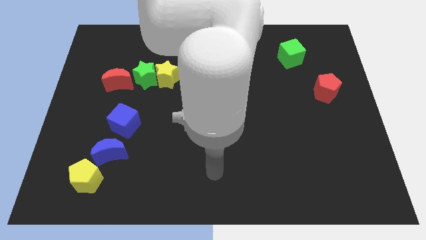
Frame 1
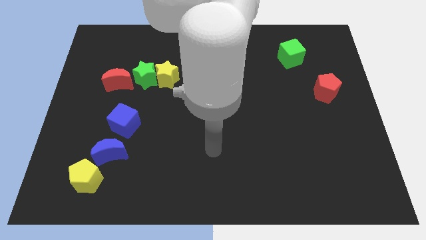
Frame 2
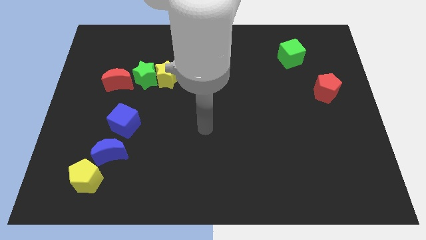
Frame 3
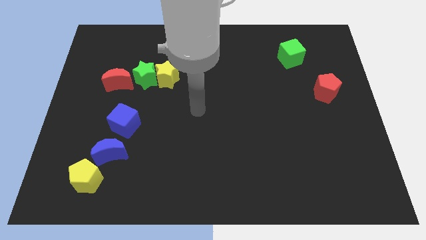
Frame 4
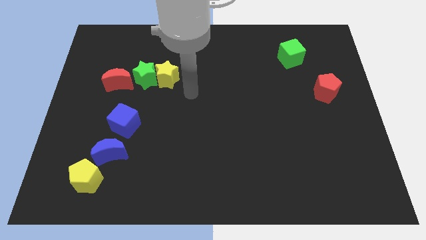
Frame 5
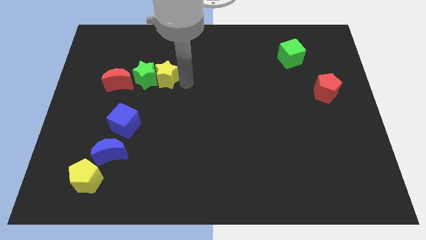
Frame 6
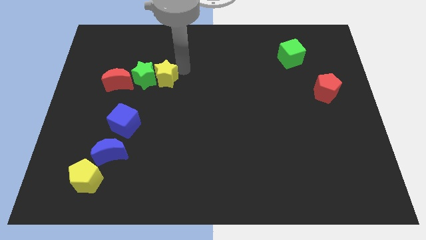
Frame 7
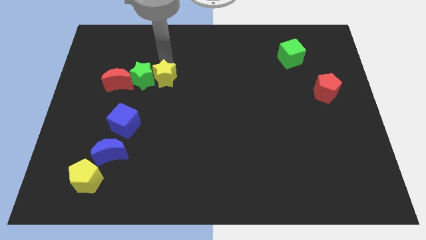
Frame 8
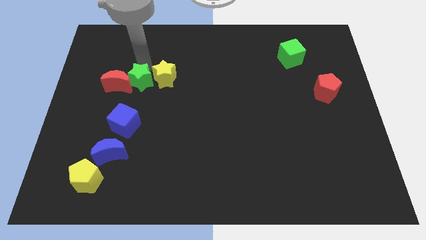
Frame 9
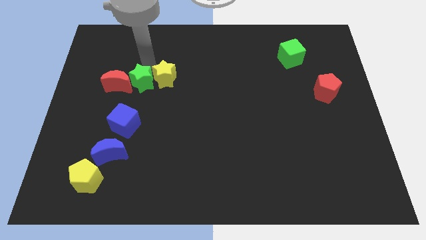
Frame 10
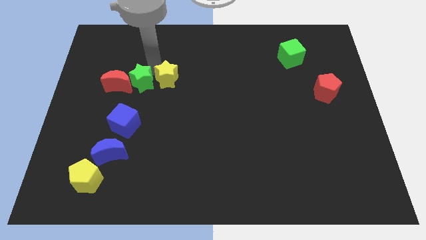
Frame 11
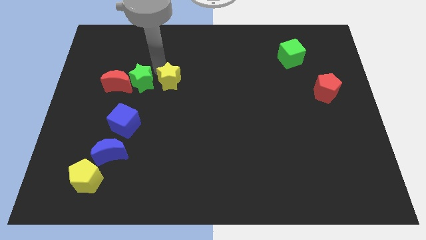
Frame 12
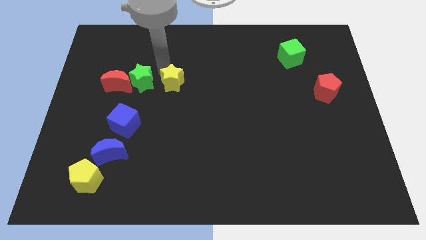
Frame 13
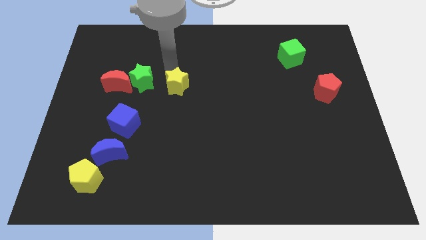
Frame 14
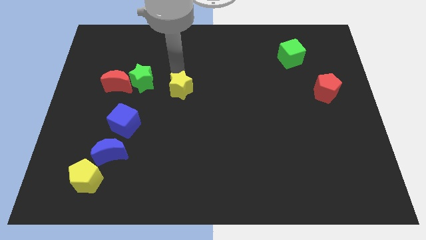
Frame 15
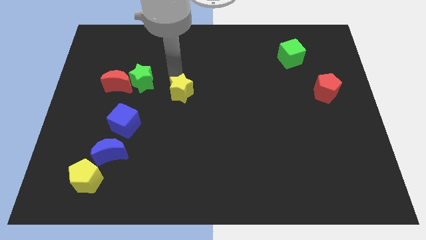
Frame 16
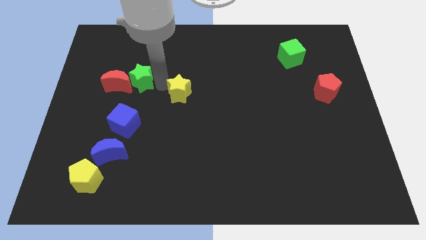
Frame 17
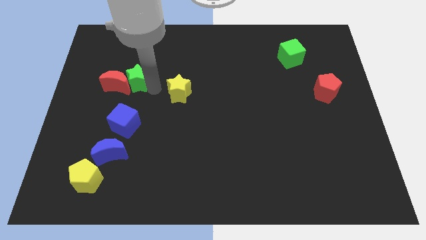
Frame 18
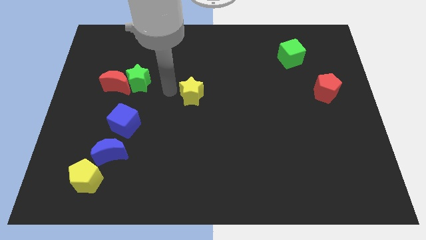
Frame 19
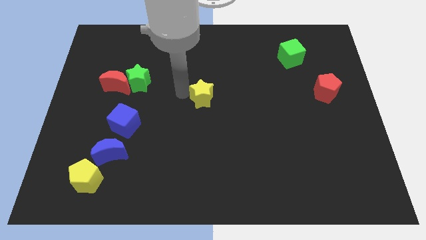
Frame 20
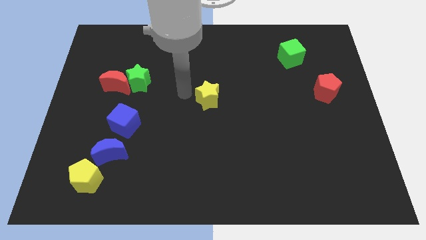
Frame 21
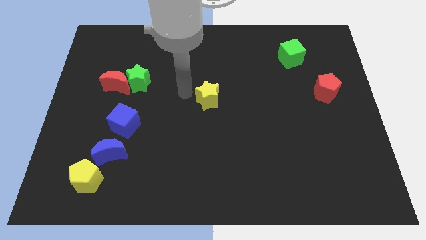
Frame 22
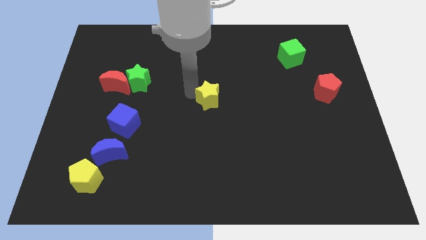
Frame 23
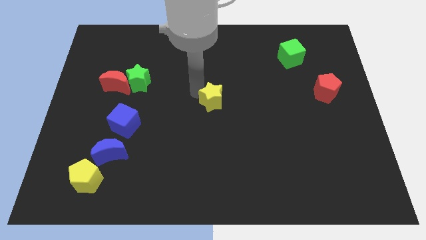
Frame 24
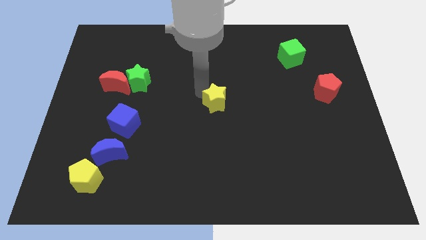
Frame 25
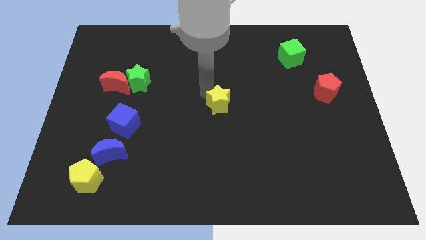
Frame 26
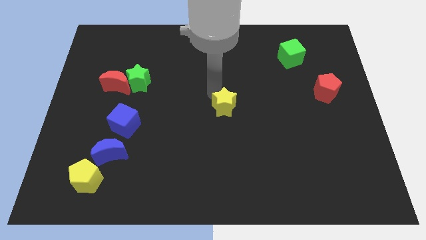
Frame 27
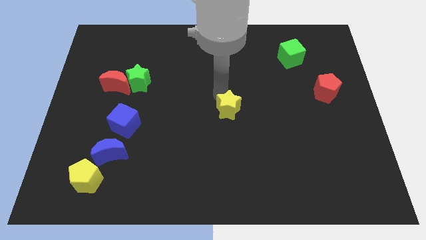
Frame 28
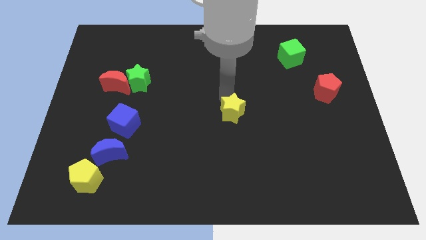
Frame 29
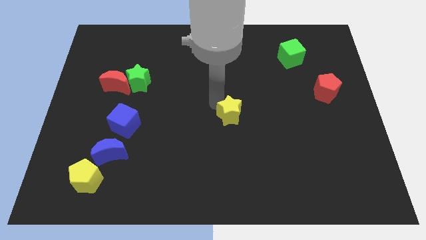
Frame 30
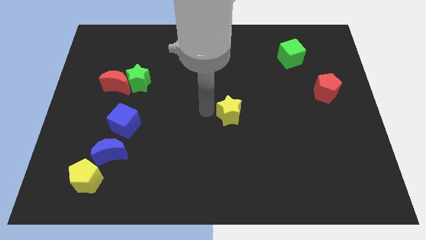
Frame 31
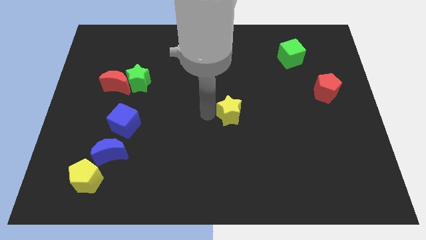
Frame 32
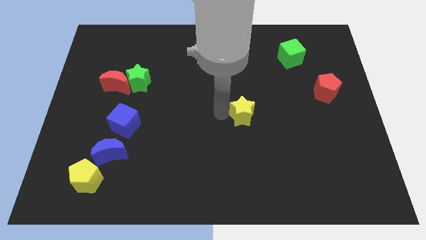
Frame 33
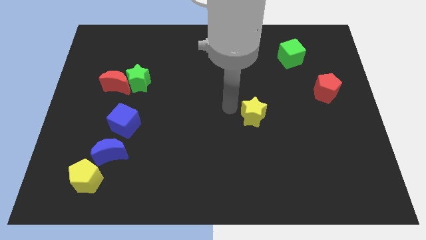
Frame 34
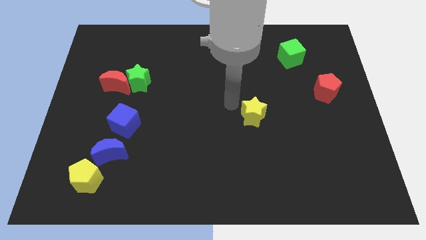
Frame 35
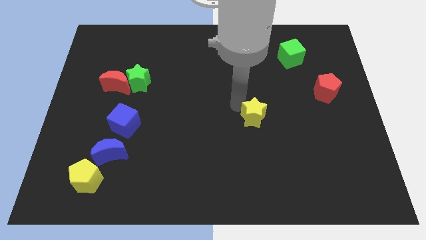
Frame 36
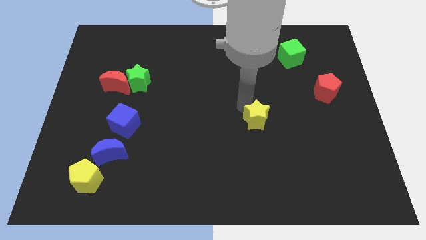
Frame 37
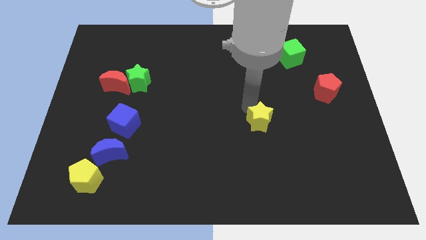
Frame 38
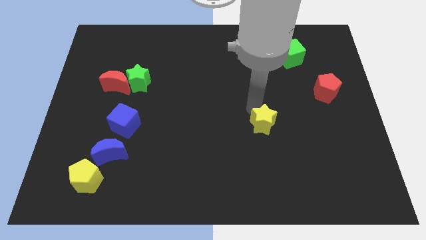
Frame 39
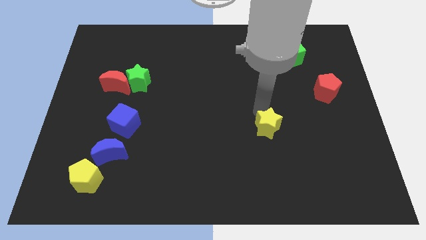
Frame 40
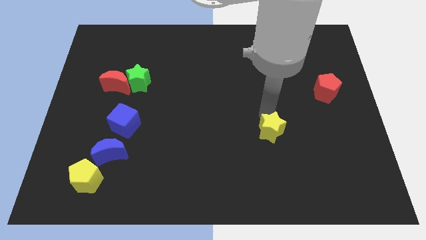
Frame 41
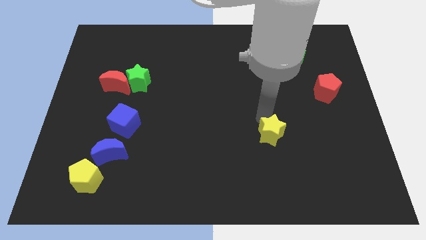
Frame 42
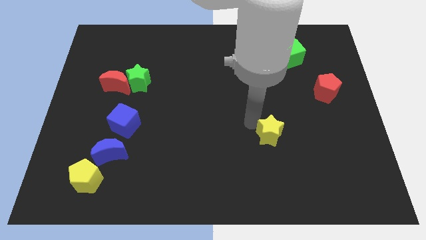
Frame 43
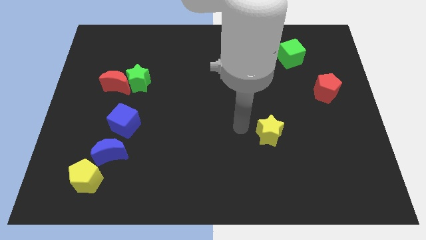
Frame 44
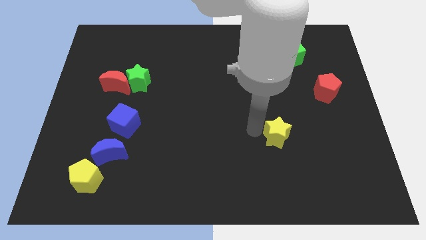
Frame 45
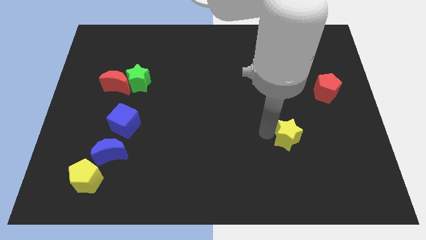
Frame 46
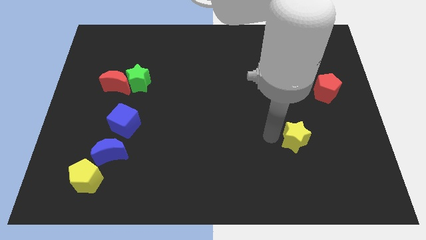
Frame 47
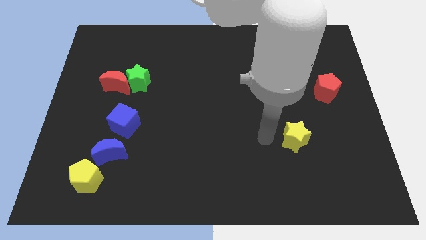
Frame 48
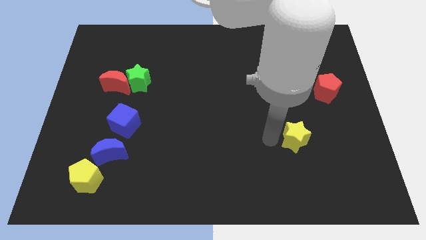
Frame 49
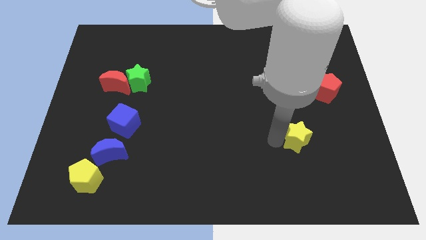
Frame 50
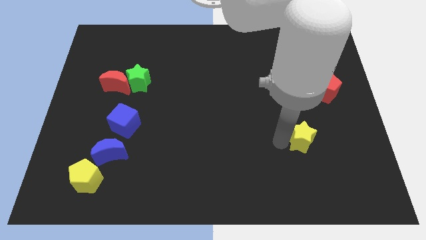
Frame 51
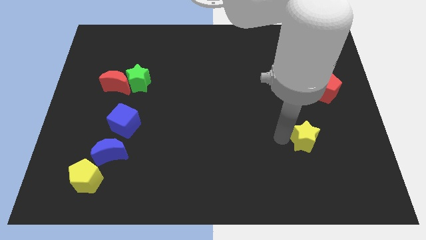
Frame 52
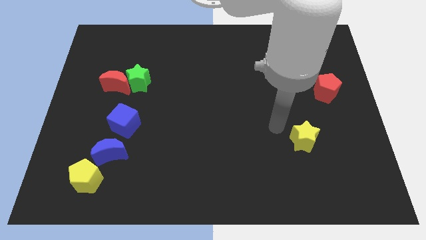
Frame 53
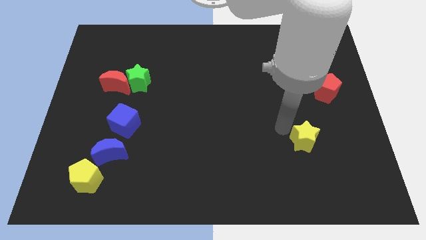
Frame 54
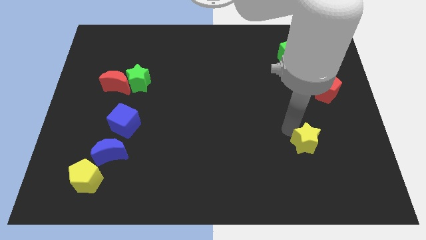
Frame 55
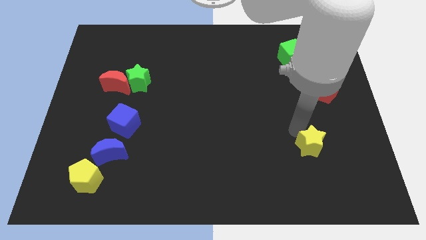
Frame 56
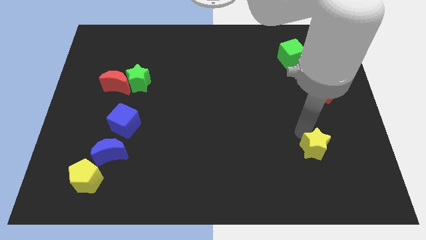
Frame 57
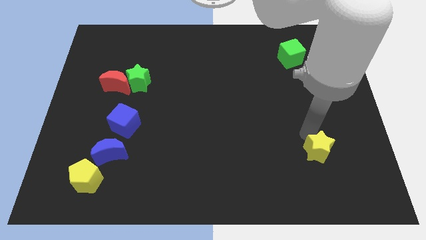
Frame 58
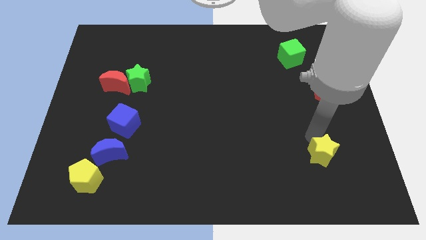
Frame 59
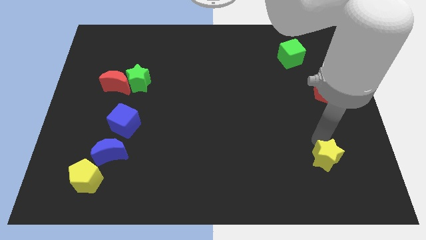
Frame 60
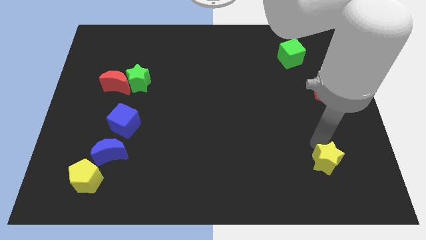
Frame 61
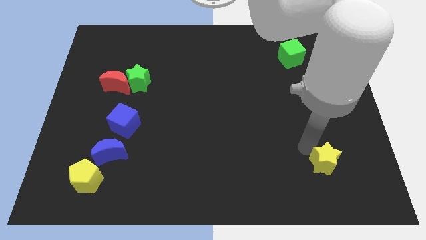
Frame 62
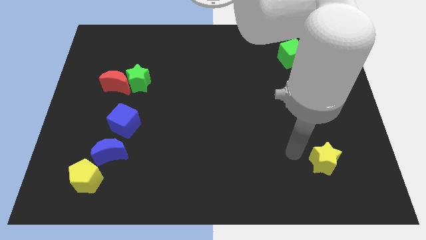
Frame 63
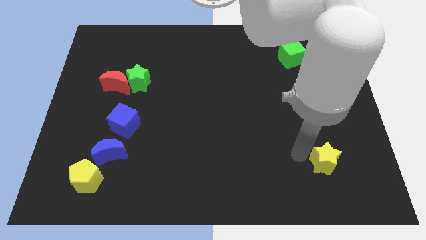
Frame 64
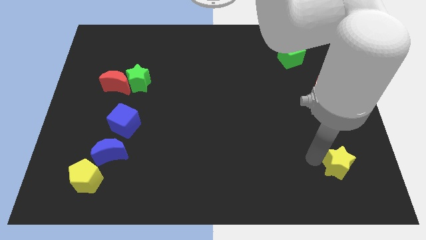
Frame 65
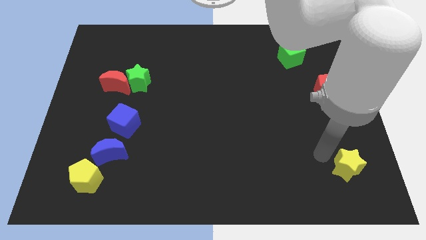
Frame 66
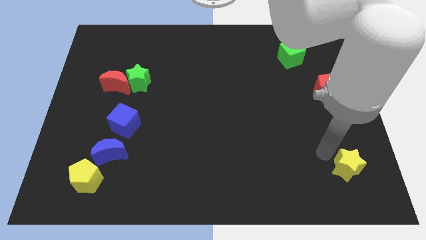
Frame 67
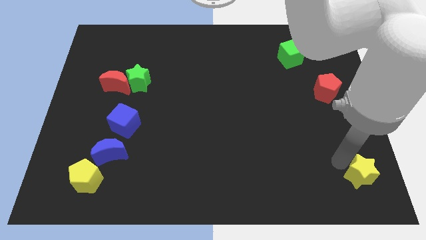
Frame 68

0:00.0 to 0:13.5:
push the yellow star to the bottom right

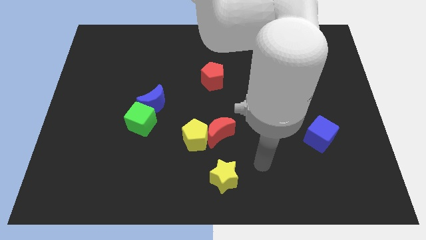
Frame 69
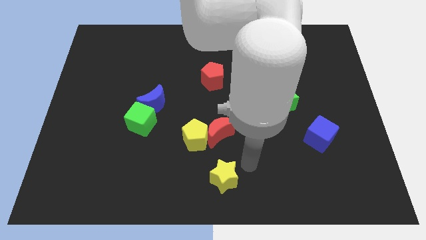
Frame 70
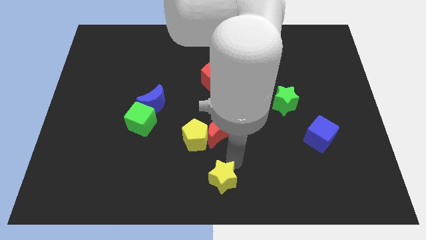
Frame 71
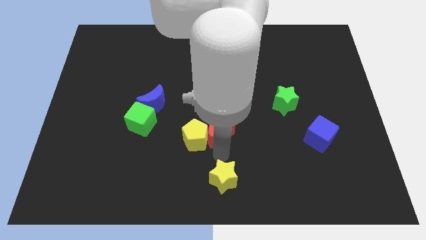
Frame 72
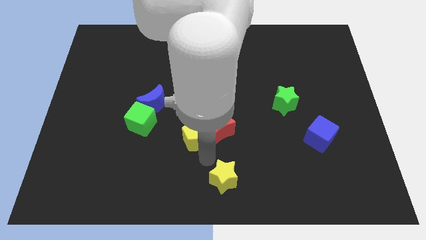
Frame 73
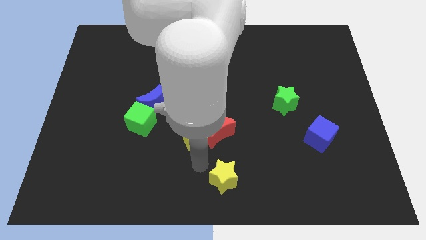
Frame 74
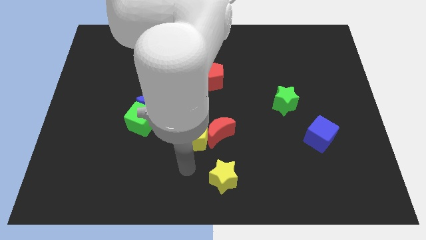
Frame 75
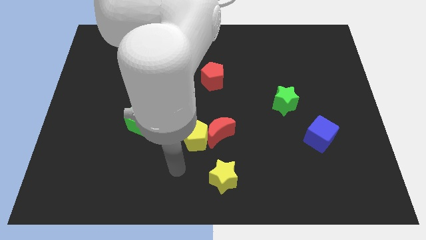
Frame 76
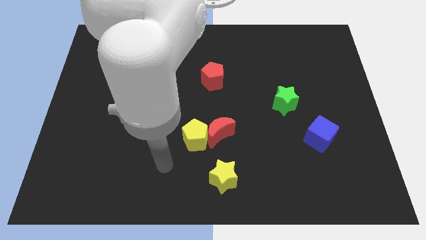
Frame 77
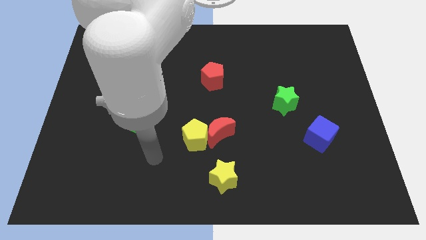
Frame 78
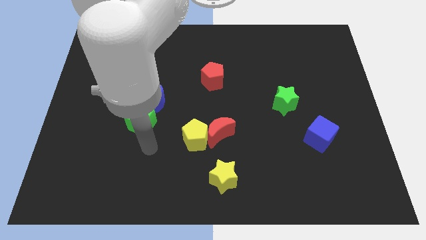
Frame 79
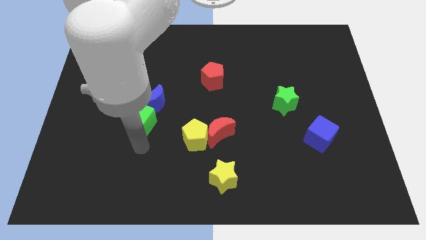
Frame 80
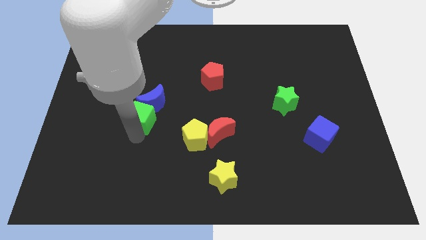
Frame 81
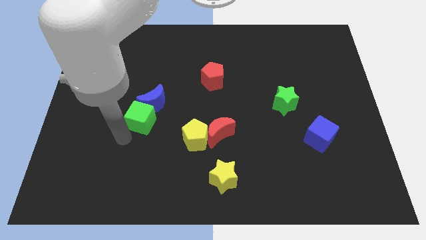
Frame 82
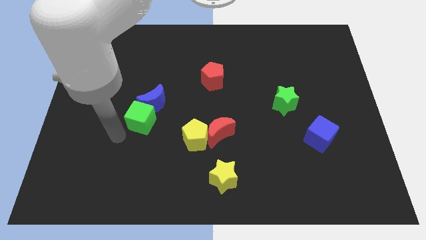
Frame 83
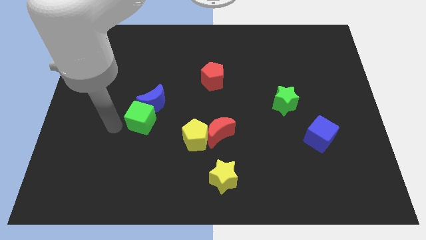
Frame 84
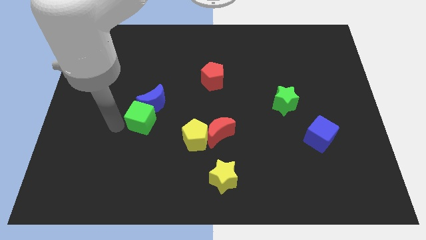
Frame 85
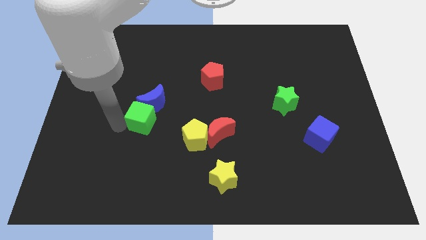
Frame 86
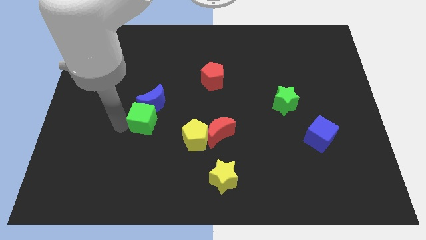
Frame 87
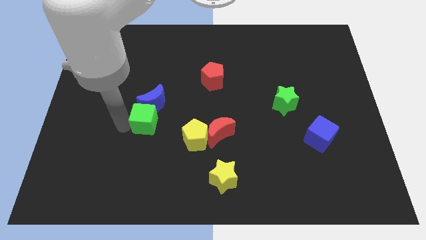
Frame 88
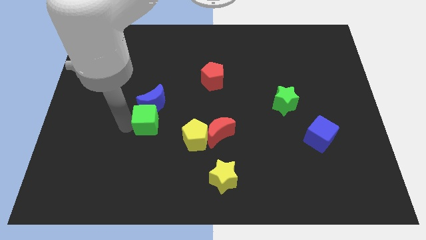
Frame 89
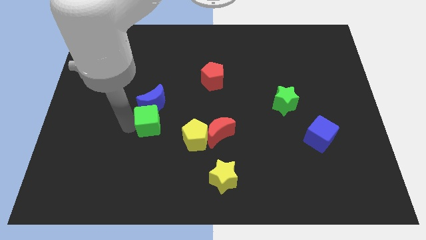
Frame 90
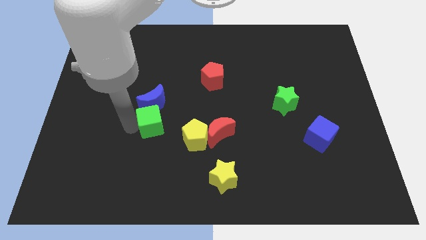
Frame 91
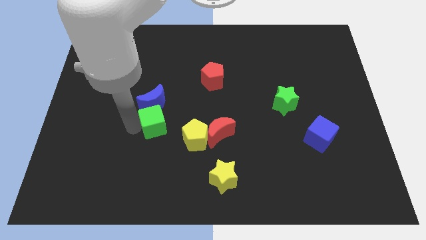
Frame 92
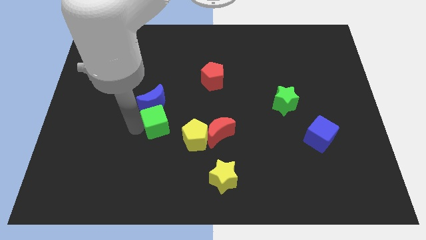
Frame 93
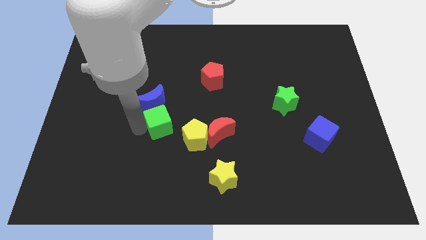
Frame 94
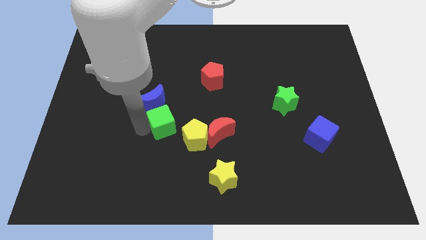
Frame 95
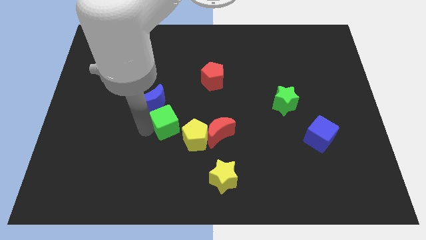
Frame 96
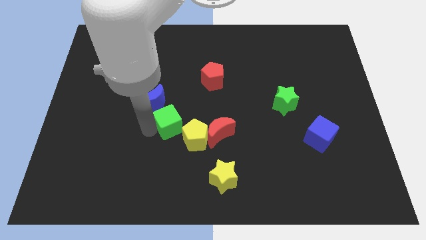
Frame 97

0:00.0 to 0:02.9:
slide the green cube to the center
